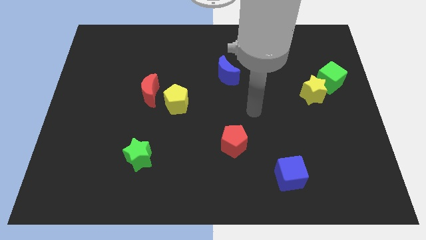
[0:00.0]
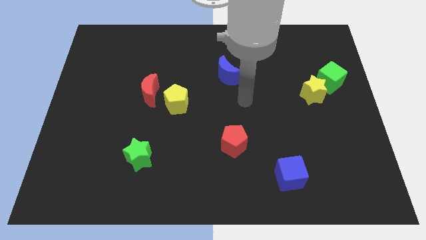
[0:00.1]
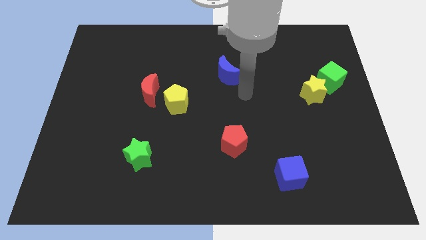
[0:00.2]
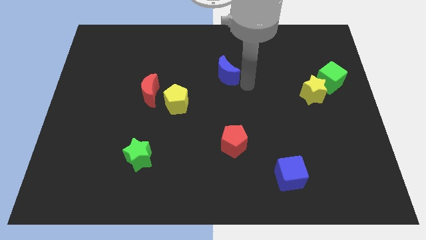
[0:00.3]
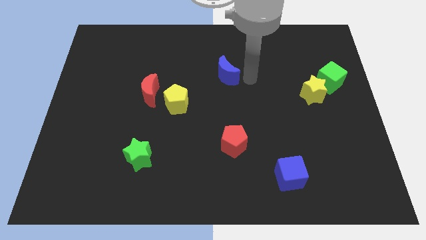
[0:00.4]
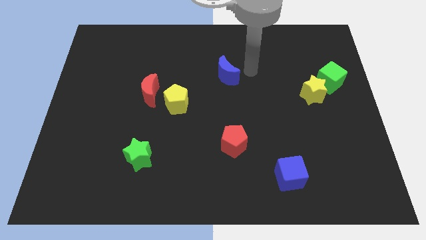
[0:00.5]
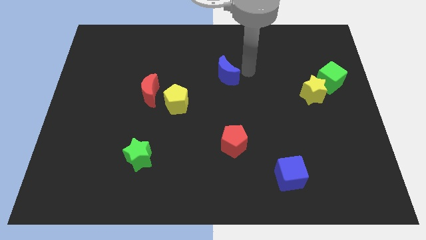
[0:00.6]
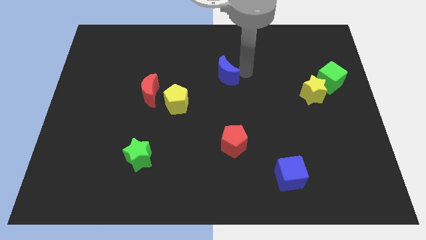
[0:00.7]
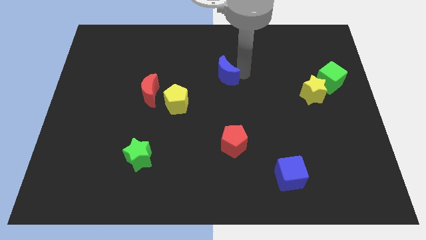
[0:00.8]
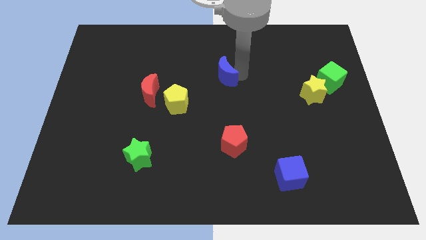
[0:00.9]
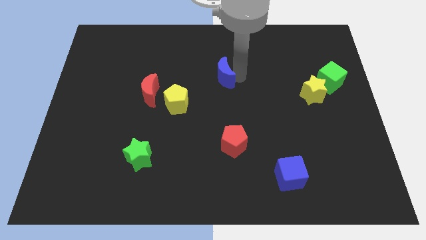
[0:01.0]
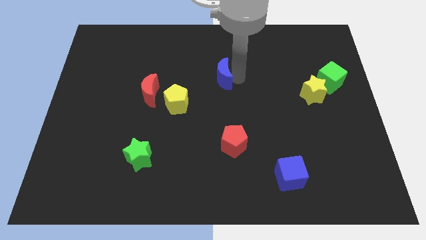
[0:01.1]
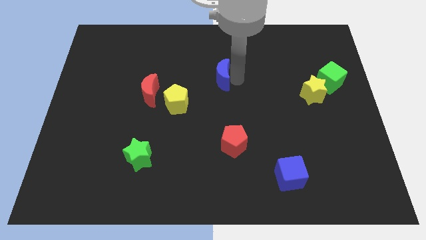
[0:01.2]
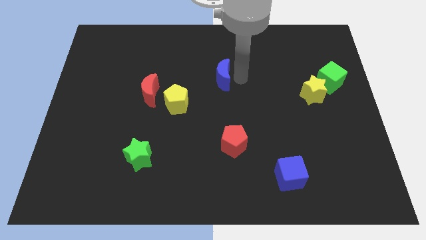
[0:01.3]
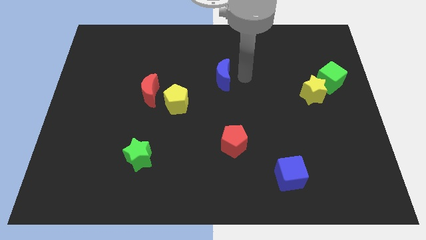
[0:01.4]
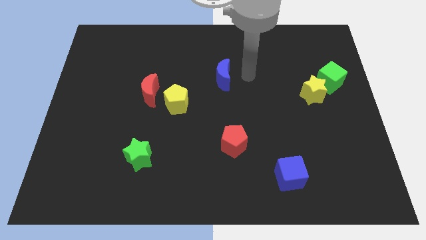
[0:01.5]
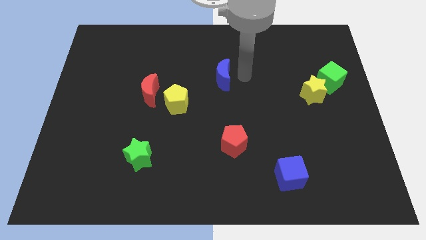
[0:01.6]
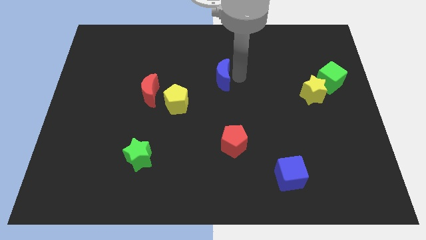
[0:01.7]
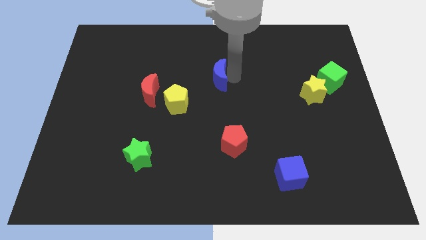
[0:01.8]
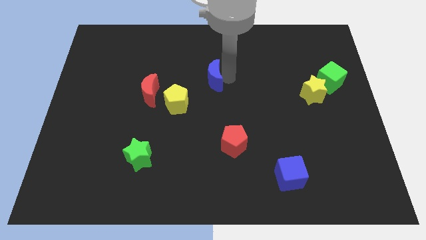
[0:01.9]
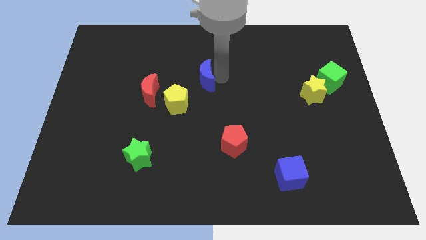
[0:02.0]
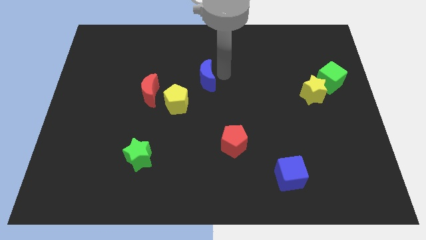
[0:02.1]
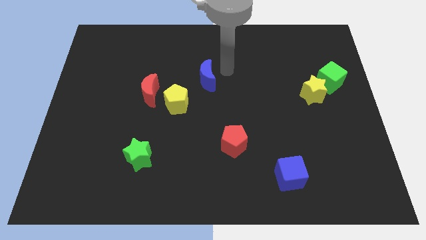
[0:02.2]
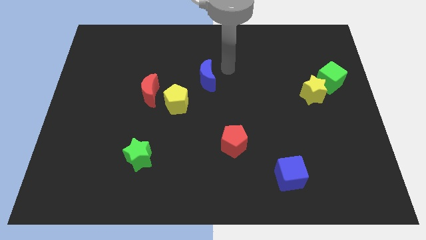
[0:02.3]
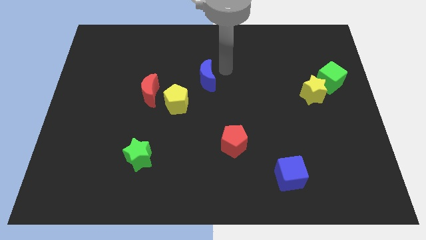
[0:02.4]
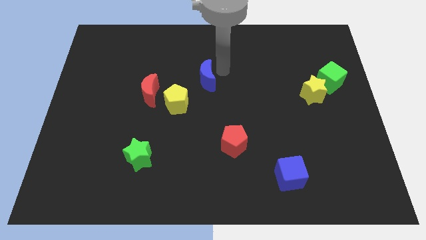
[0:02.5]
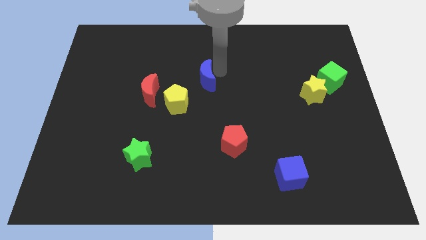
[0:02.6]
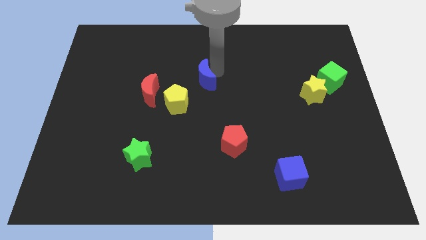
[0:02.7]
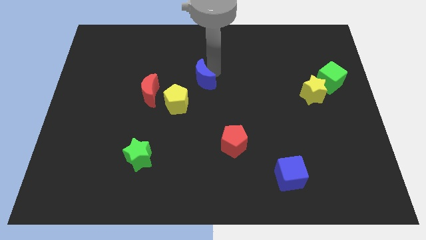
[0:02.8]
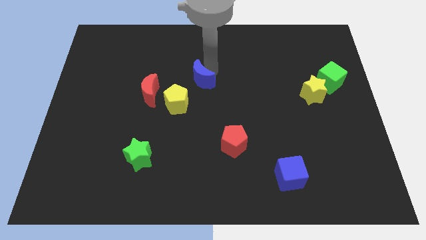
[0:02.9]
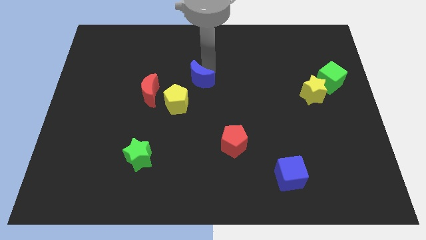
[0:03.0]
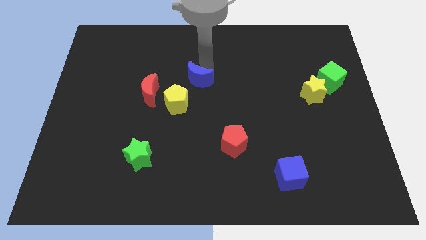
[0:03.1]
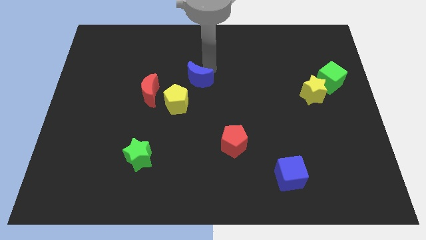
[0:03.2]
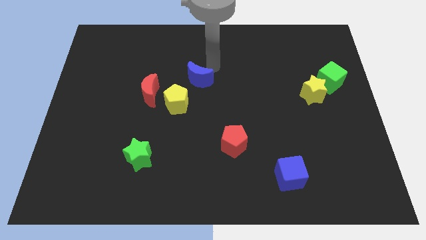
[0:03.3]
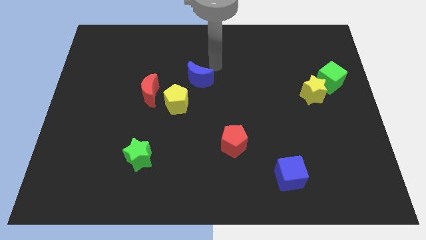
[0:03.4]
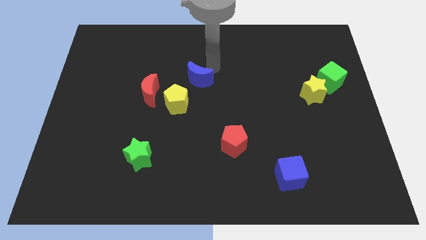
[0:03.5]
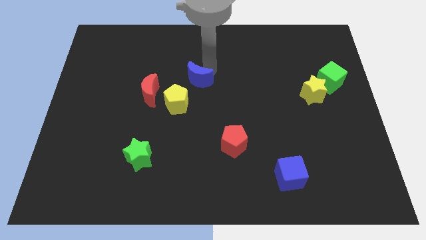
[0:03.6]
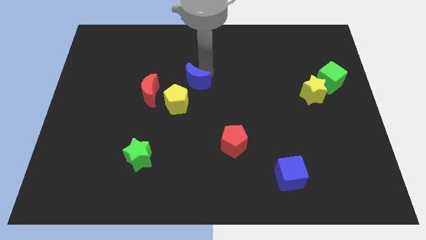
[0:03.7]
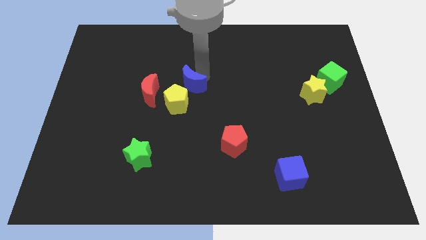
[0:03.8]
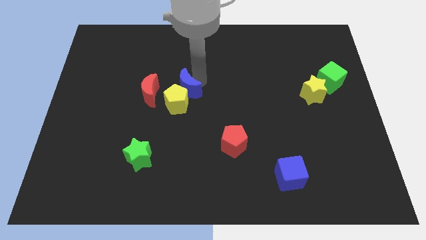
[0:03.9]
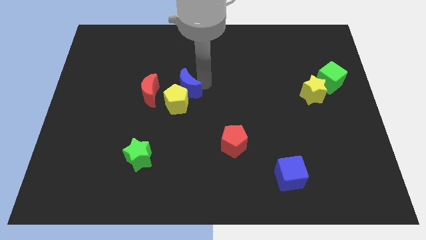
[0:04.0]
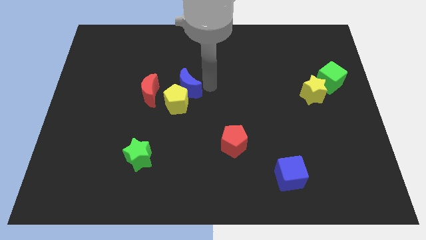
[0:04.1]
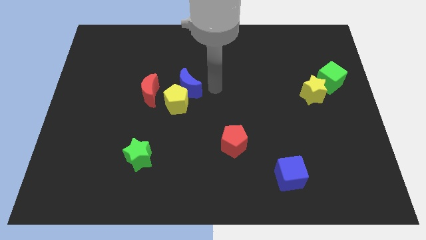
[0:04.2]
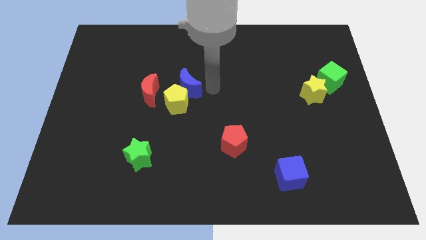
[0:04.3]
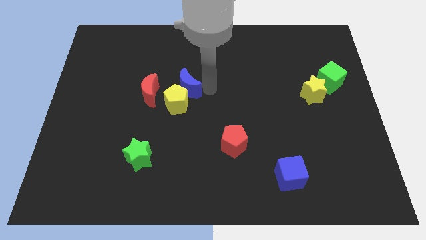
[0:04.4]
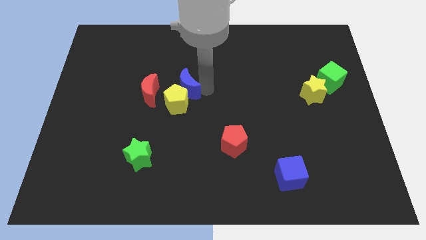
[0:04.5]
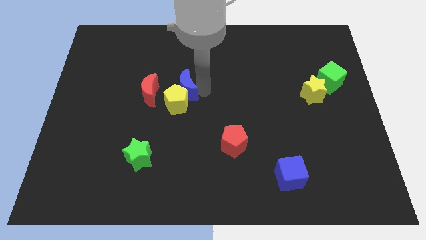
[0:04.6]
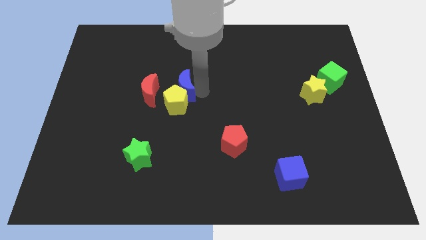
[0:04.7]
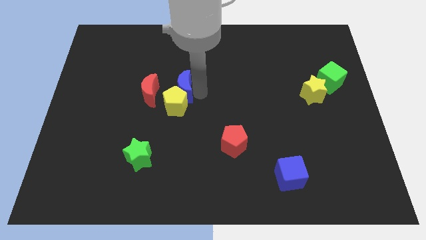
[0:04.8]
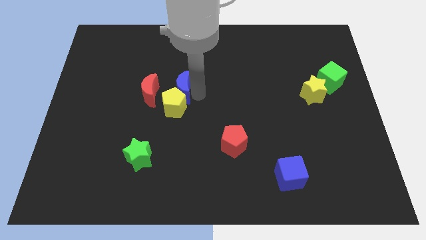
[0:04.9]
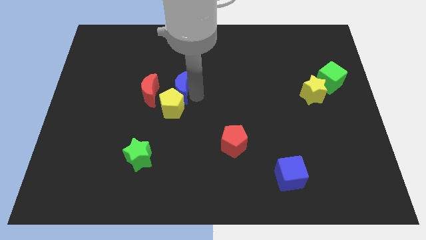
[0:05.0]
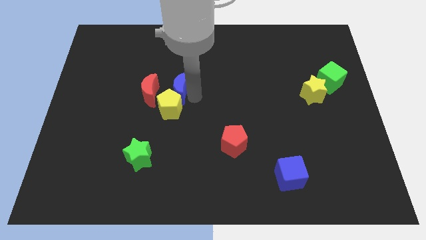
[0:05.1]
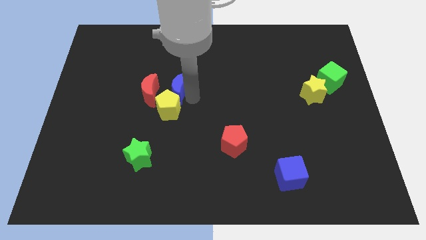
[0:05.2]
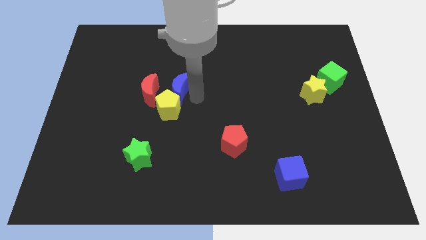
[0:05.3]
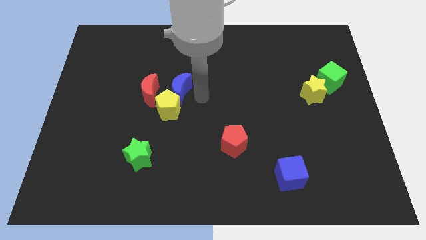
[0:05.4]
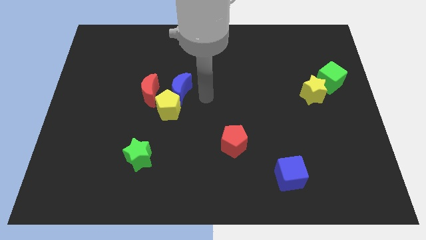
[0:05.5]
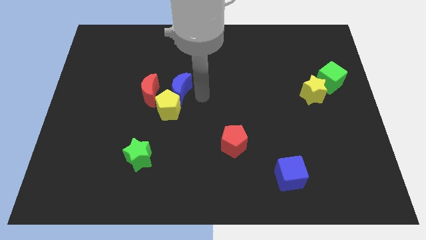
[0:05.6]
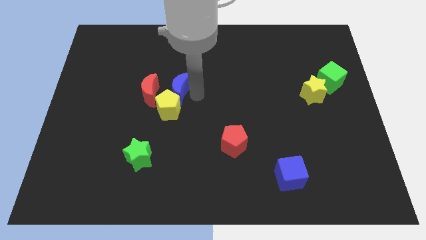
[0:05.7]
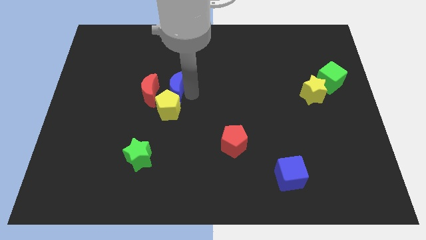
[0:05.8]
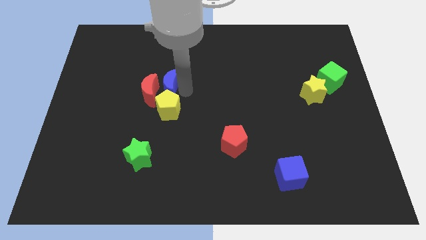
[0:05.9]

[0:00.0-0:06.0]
move the blue moon next to the red moon

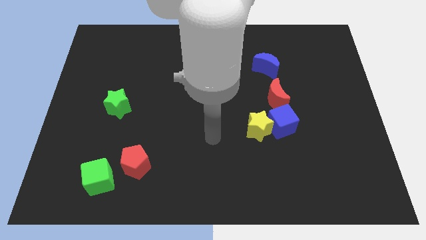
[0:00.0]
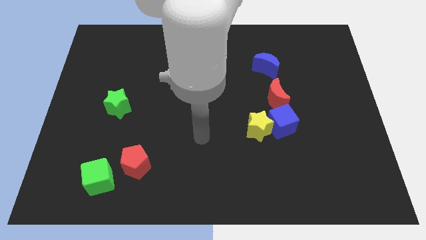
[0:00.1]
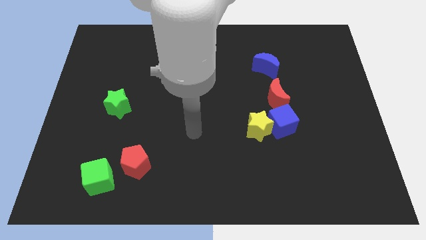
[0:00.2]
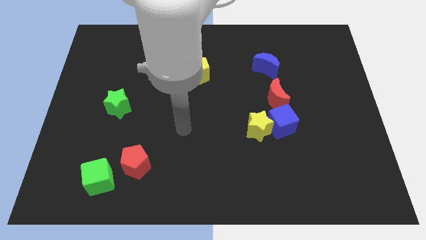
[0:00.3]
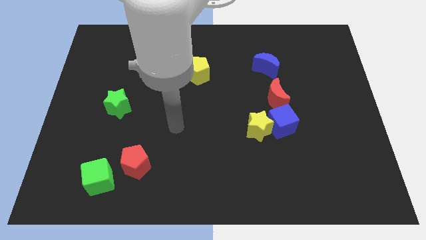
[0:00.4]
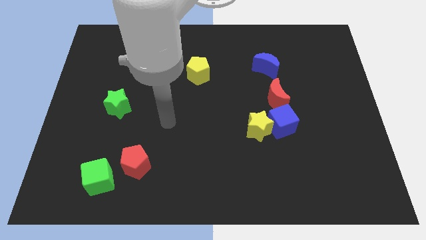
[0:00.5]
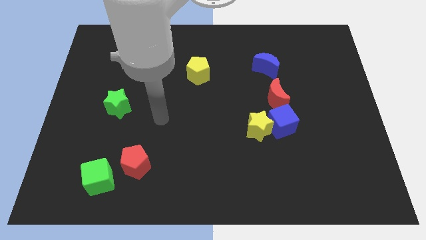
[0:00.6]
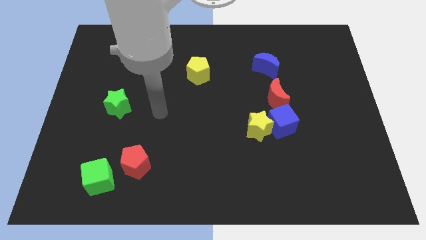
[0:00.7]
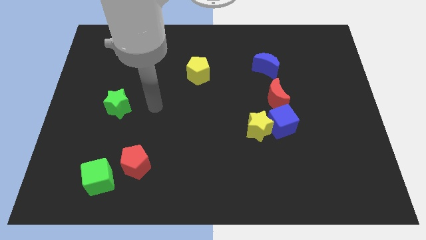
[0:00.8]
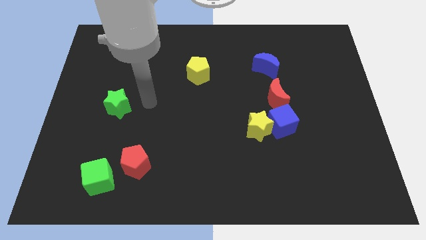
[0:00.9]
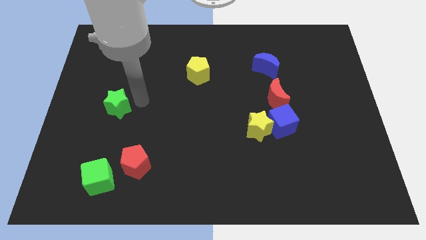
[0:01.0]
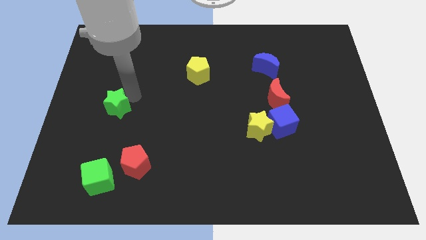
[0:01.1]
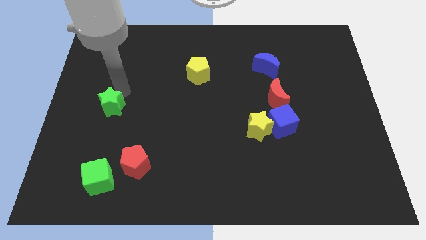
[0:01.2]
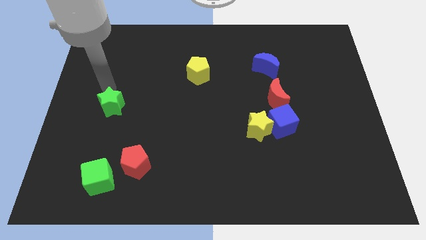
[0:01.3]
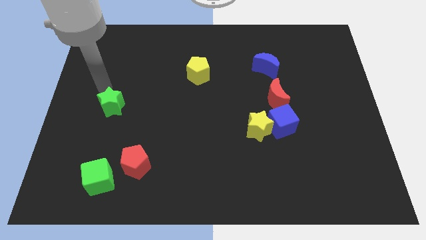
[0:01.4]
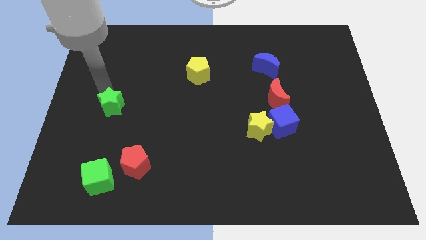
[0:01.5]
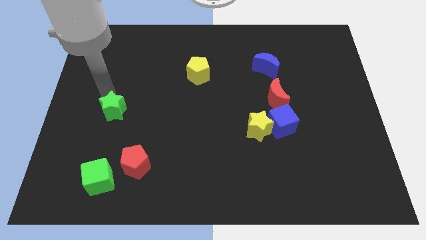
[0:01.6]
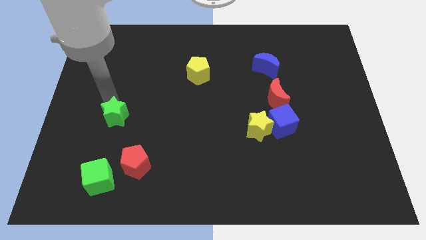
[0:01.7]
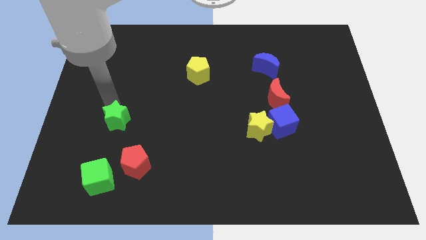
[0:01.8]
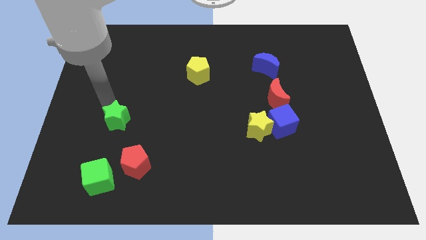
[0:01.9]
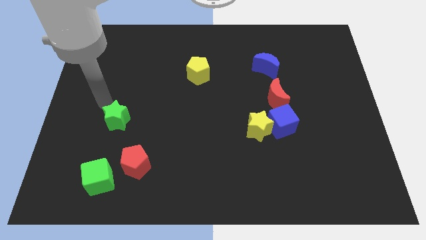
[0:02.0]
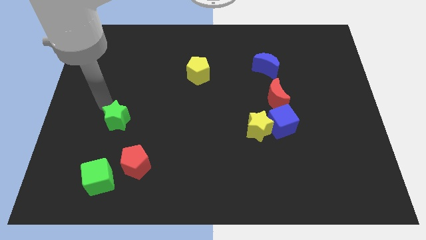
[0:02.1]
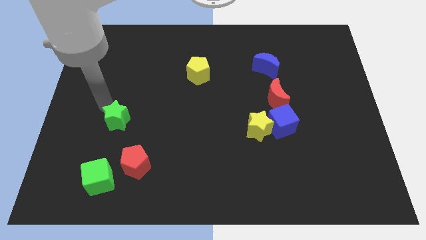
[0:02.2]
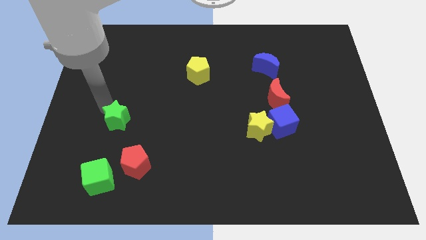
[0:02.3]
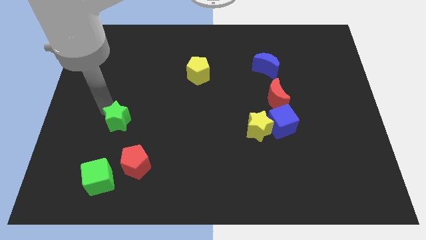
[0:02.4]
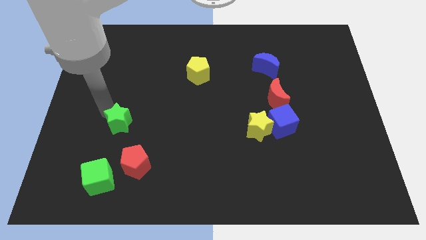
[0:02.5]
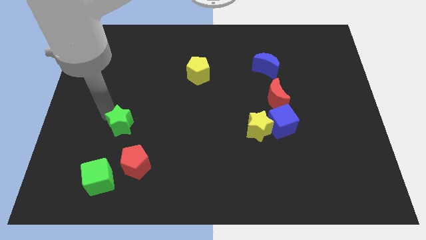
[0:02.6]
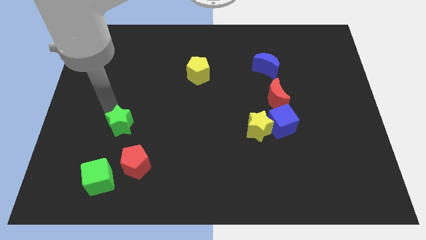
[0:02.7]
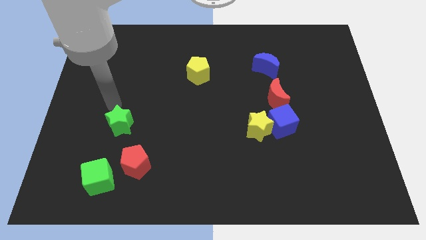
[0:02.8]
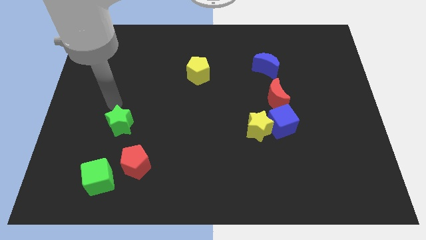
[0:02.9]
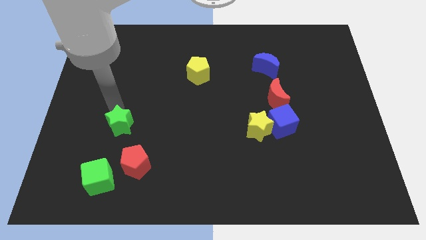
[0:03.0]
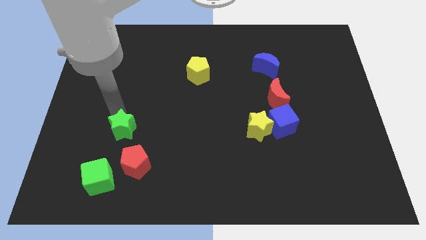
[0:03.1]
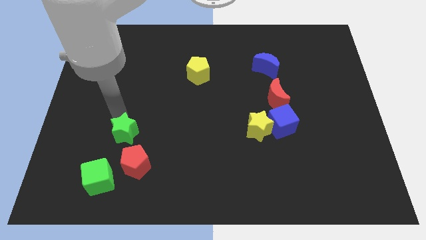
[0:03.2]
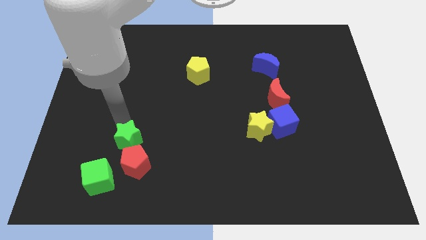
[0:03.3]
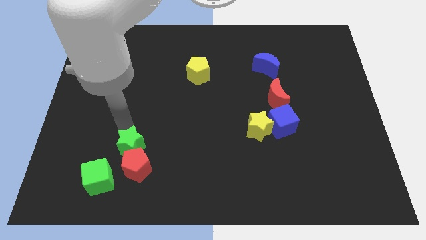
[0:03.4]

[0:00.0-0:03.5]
move the green star close to the red pentagon
